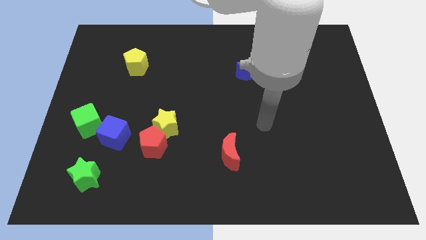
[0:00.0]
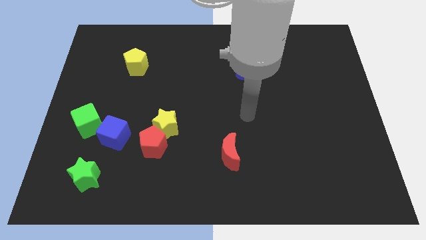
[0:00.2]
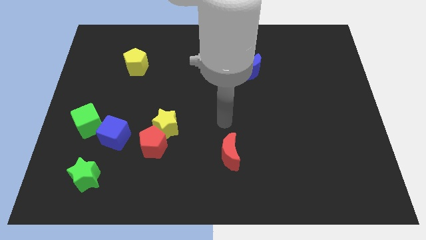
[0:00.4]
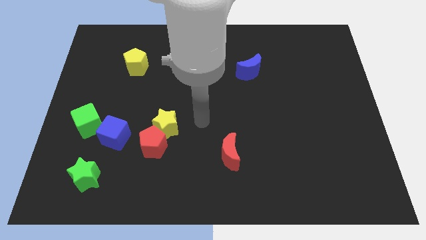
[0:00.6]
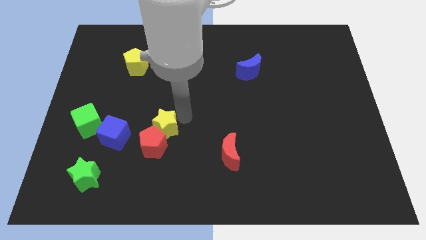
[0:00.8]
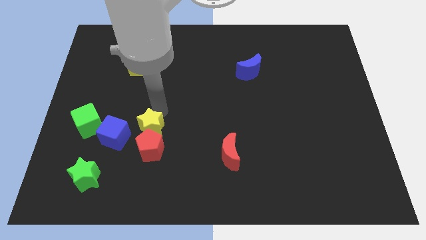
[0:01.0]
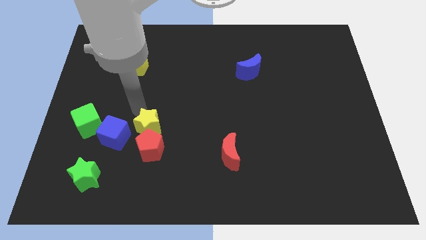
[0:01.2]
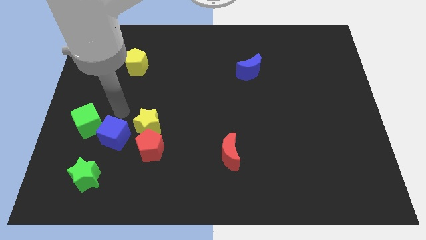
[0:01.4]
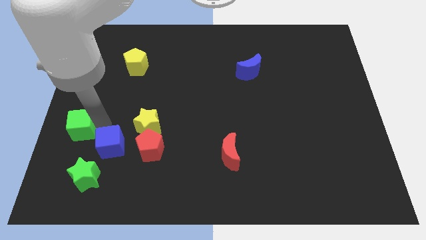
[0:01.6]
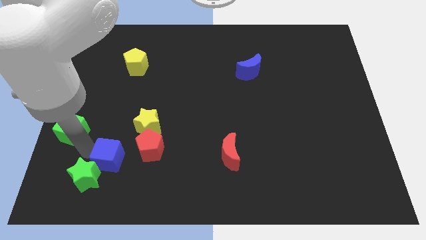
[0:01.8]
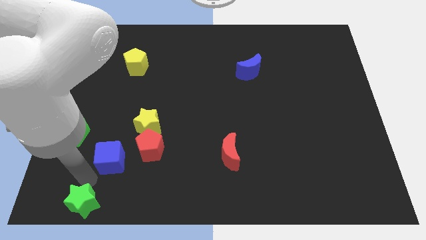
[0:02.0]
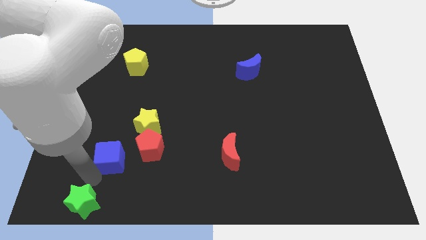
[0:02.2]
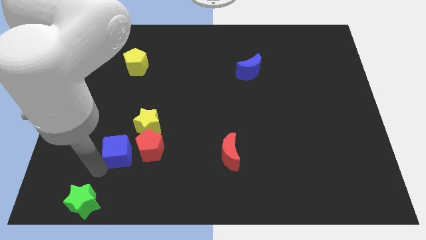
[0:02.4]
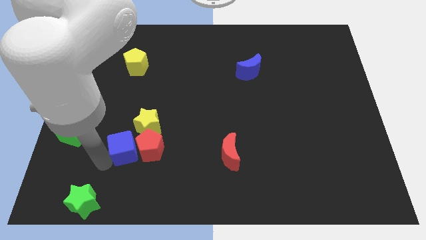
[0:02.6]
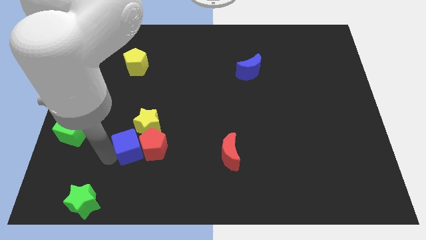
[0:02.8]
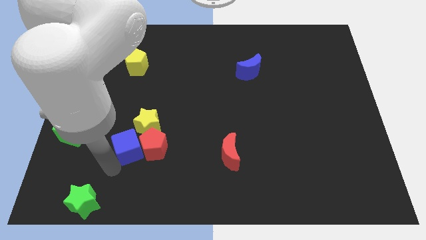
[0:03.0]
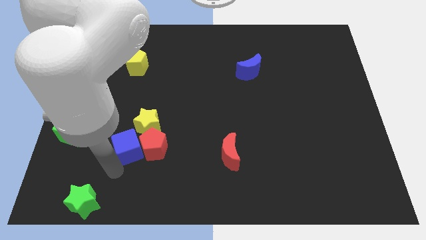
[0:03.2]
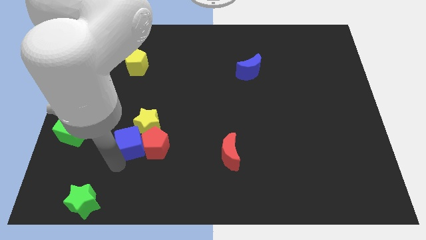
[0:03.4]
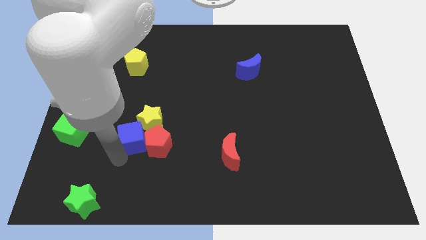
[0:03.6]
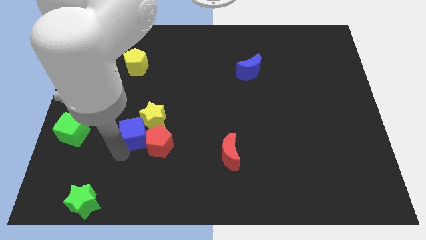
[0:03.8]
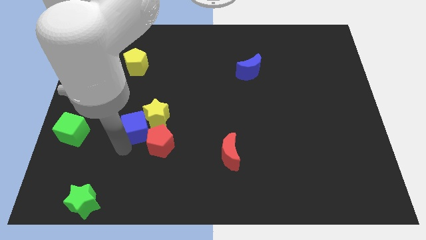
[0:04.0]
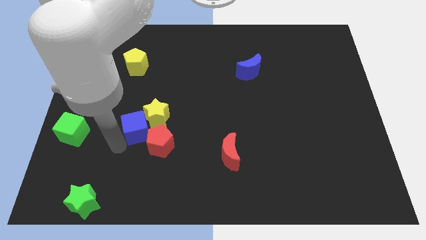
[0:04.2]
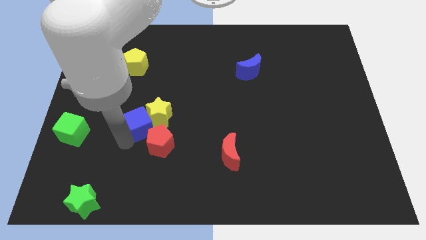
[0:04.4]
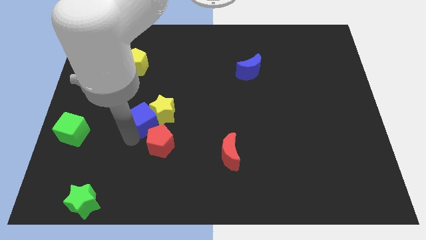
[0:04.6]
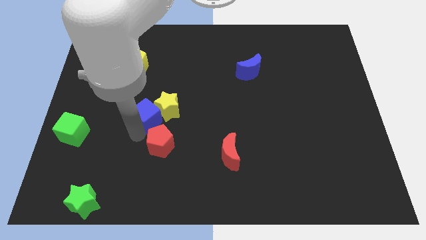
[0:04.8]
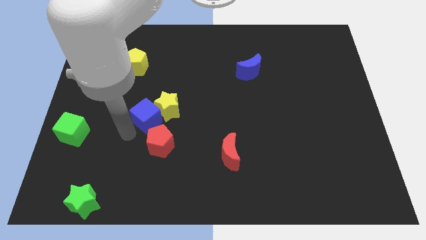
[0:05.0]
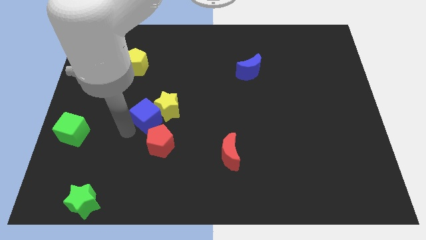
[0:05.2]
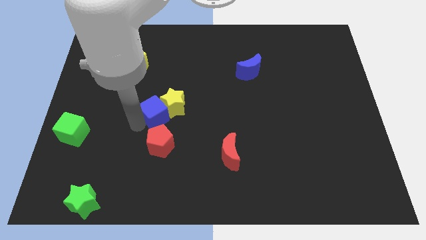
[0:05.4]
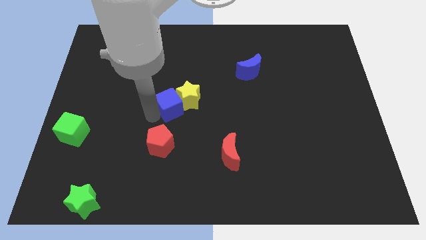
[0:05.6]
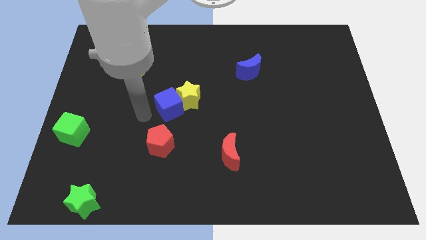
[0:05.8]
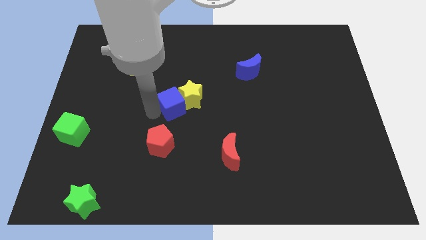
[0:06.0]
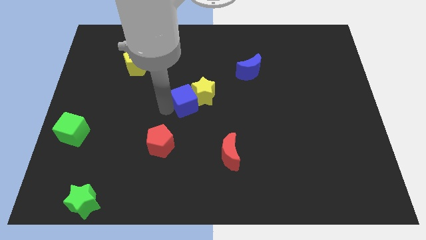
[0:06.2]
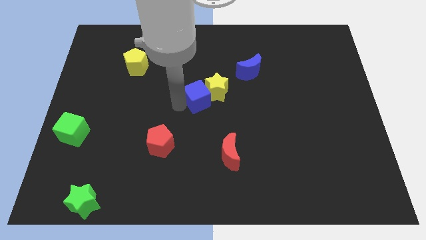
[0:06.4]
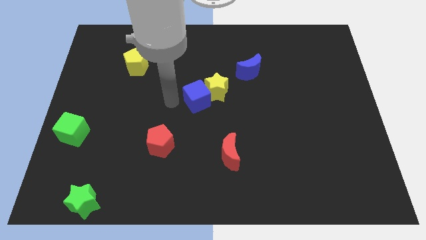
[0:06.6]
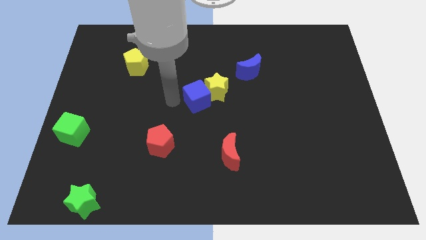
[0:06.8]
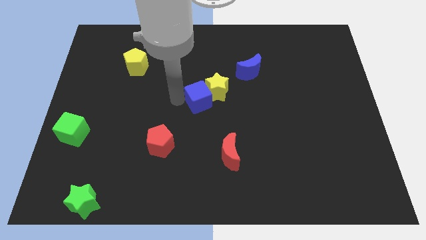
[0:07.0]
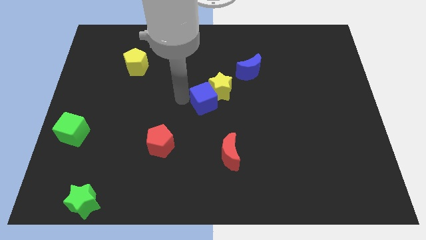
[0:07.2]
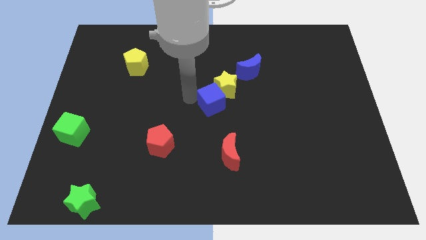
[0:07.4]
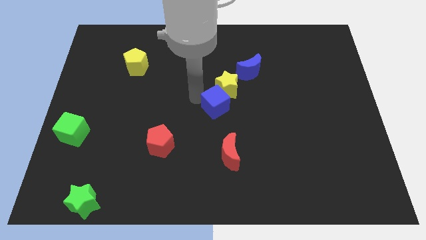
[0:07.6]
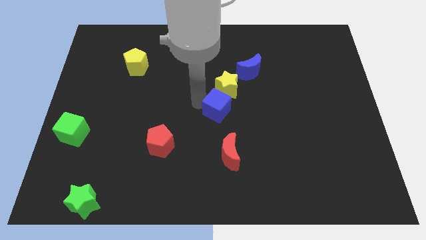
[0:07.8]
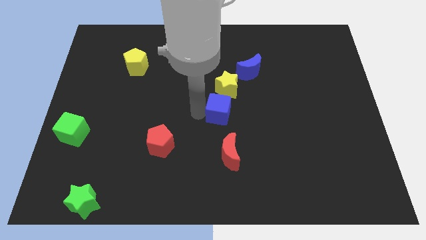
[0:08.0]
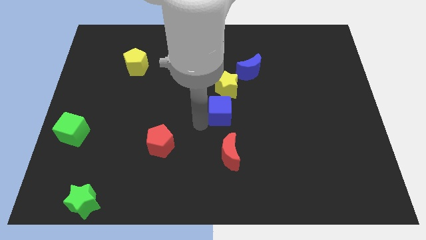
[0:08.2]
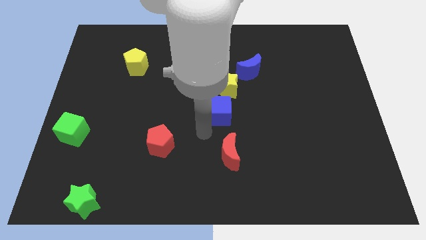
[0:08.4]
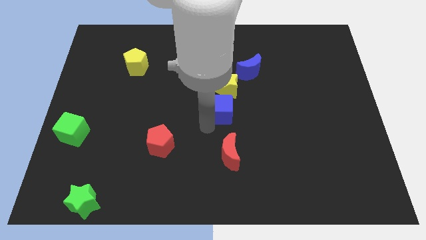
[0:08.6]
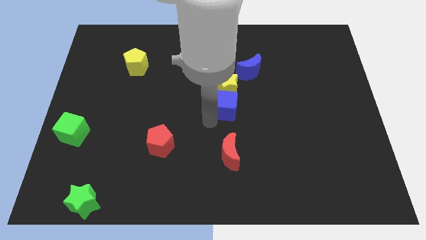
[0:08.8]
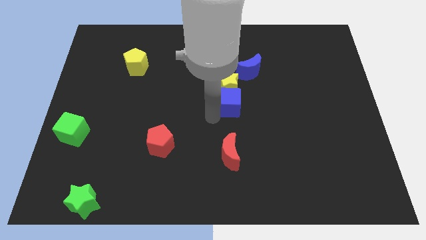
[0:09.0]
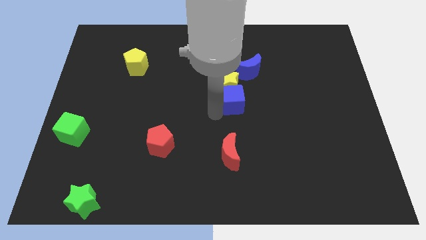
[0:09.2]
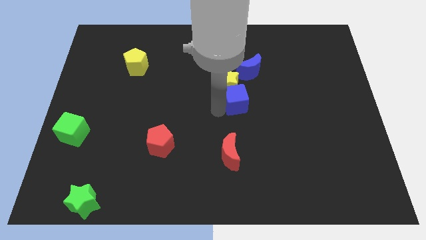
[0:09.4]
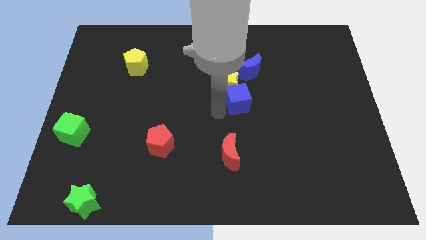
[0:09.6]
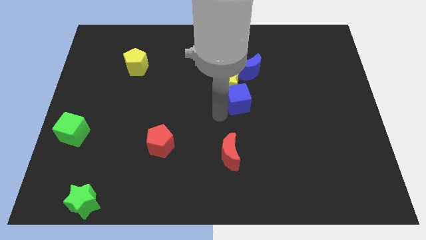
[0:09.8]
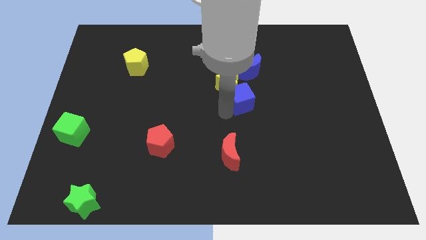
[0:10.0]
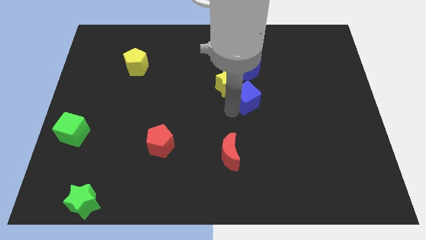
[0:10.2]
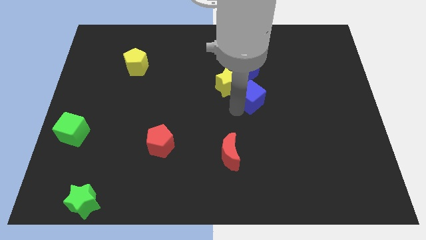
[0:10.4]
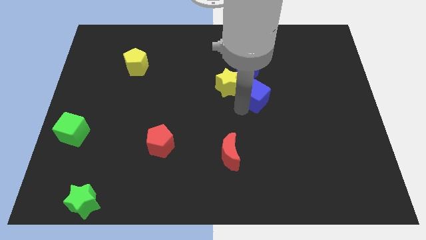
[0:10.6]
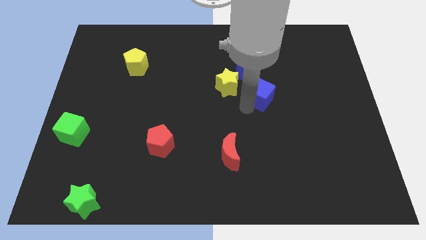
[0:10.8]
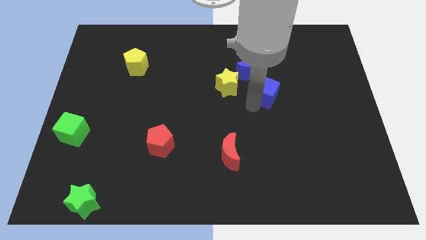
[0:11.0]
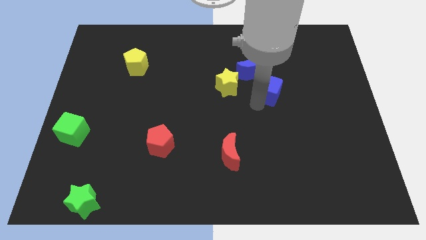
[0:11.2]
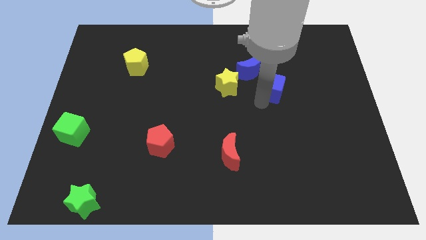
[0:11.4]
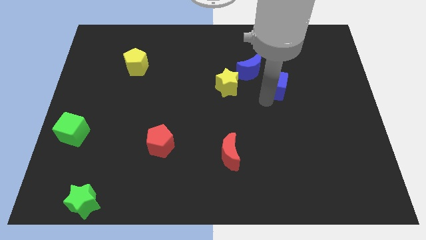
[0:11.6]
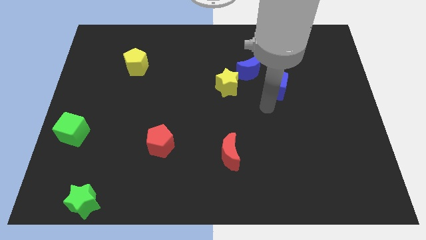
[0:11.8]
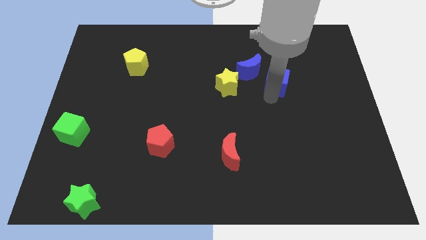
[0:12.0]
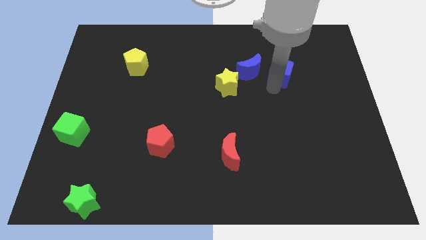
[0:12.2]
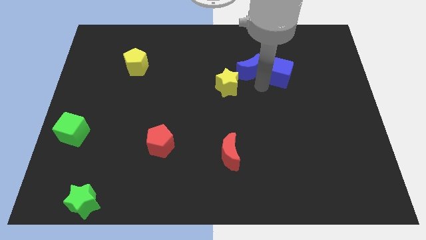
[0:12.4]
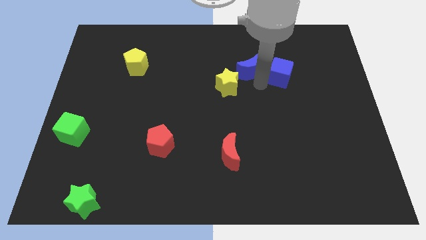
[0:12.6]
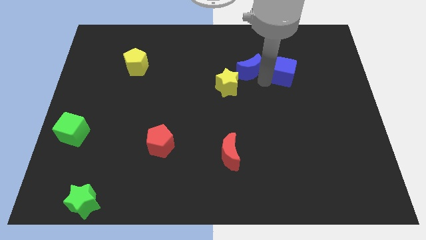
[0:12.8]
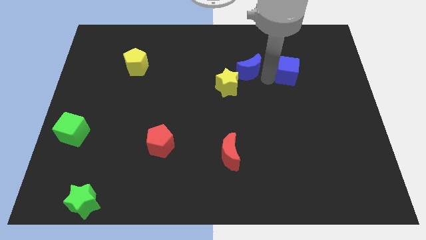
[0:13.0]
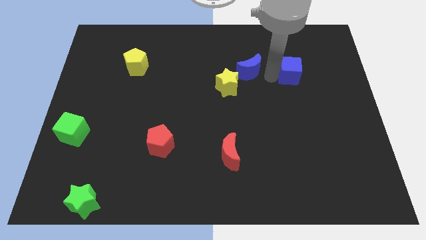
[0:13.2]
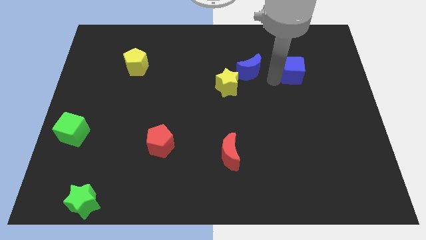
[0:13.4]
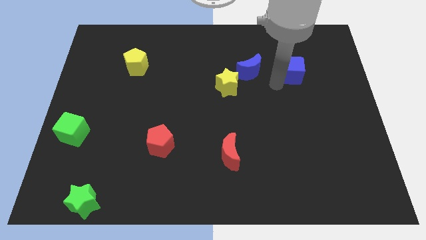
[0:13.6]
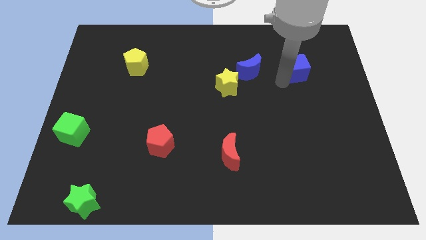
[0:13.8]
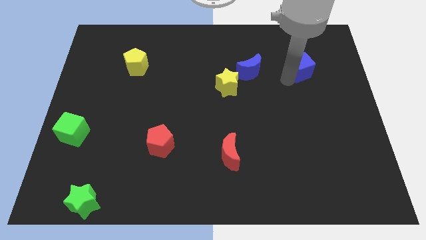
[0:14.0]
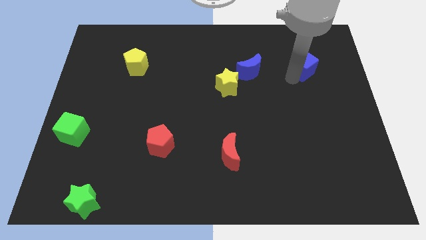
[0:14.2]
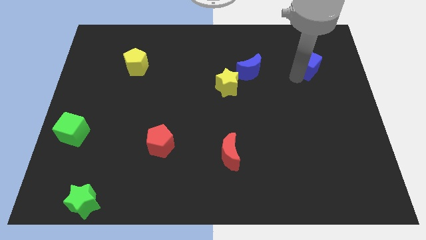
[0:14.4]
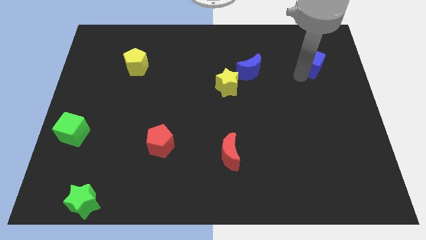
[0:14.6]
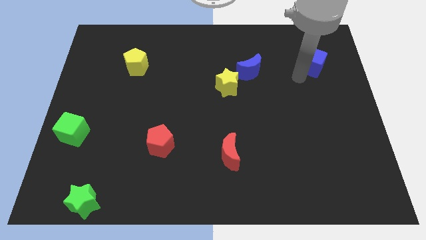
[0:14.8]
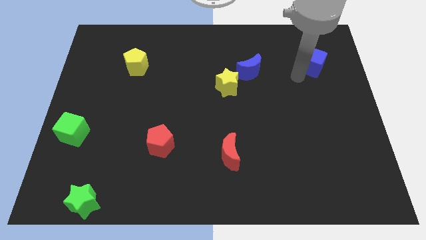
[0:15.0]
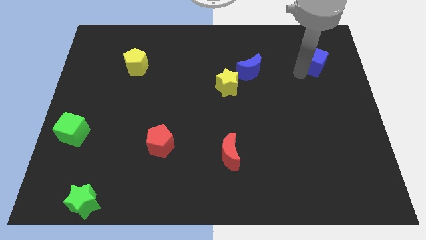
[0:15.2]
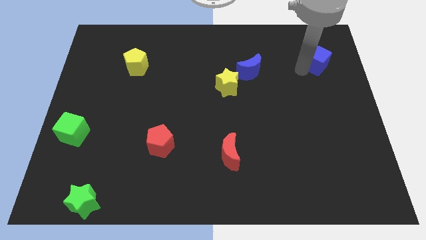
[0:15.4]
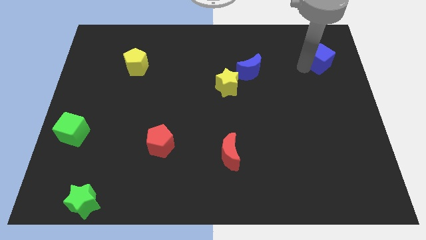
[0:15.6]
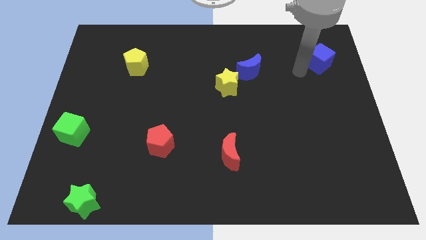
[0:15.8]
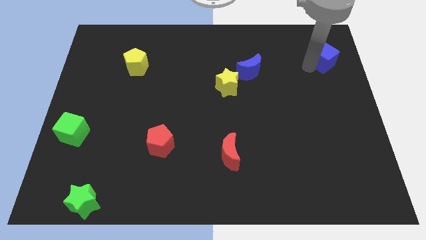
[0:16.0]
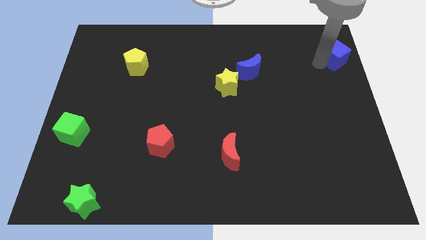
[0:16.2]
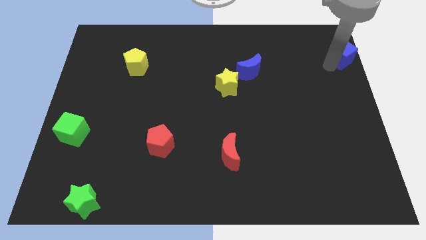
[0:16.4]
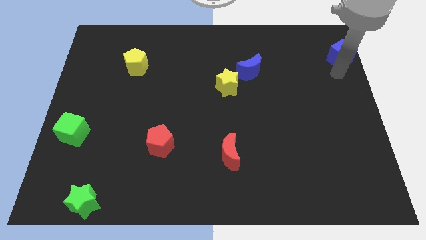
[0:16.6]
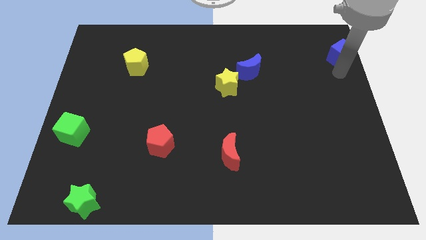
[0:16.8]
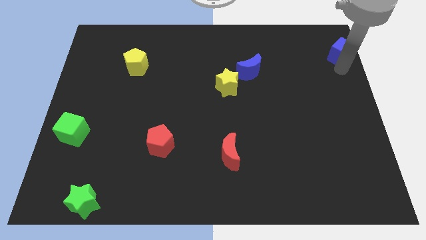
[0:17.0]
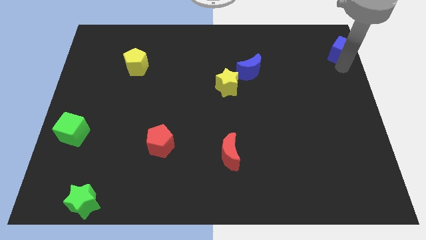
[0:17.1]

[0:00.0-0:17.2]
slide the blue cube to the top right corner
